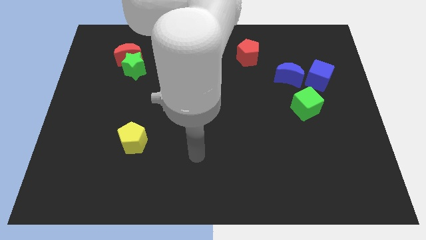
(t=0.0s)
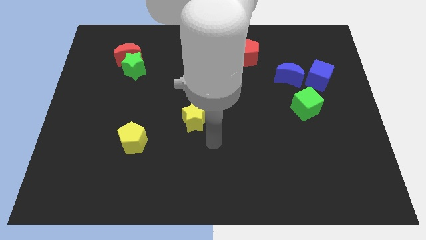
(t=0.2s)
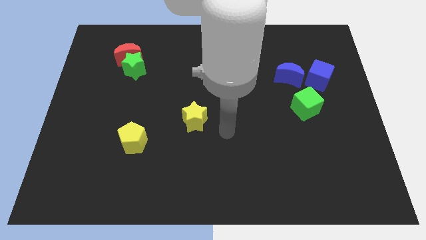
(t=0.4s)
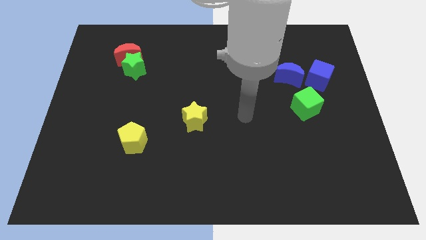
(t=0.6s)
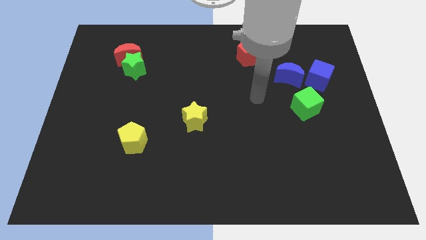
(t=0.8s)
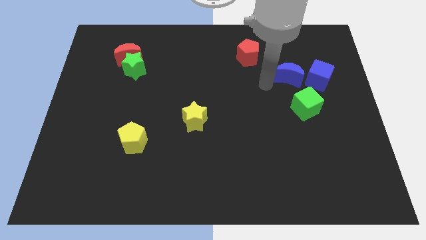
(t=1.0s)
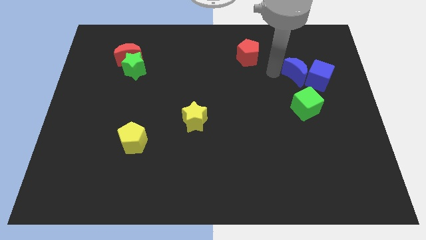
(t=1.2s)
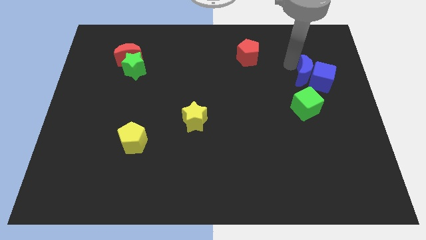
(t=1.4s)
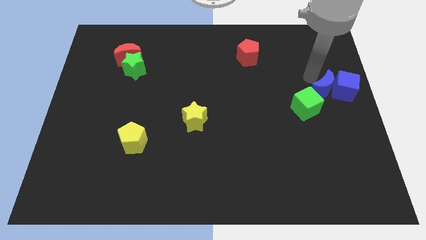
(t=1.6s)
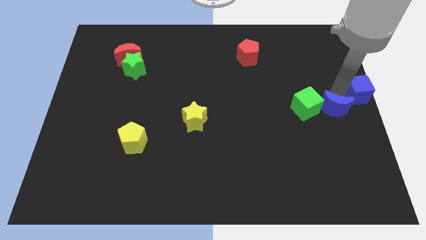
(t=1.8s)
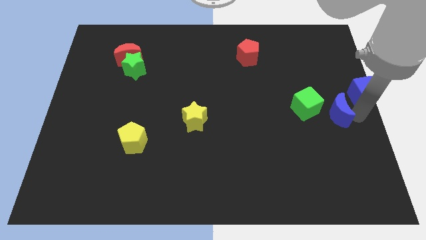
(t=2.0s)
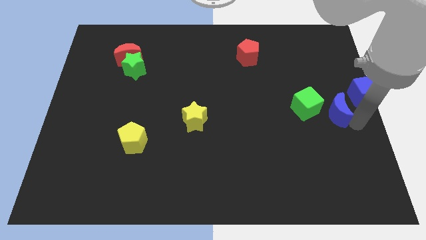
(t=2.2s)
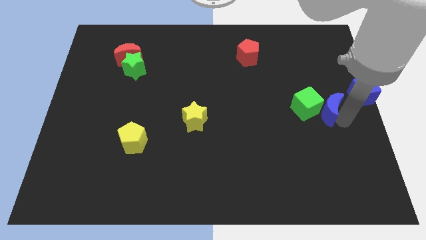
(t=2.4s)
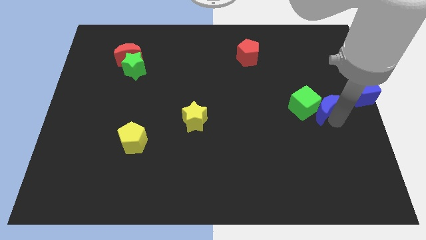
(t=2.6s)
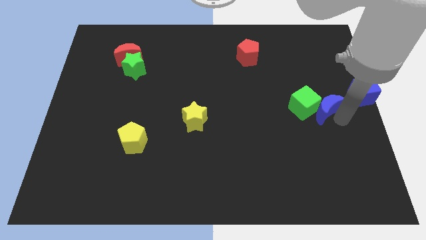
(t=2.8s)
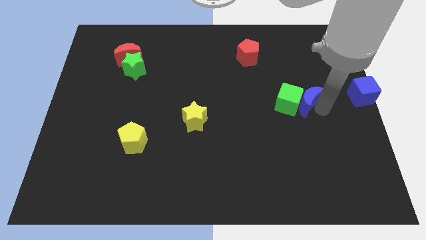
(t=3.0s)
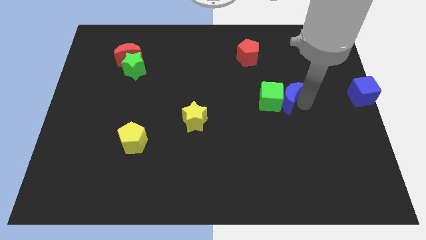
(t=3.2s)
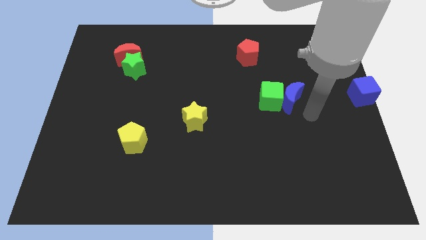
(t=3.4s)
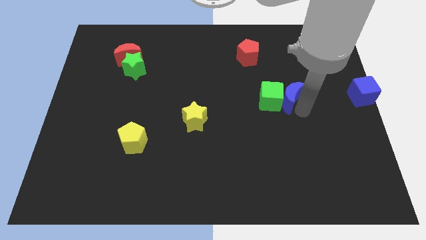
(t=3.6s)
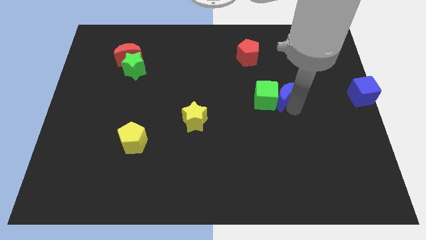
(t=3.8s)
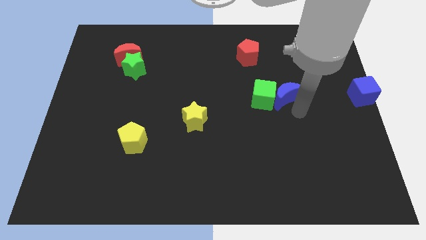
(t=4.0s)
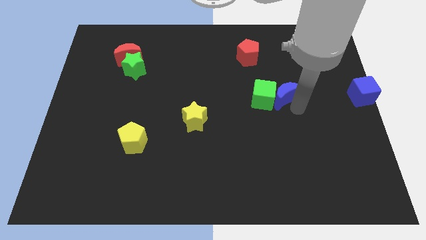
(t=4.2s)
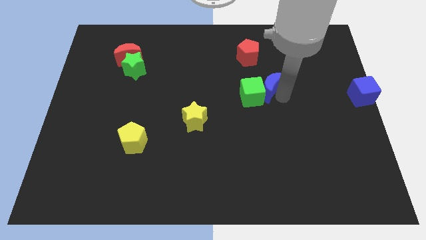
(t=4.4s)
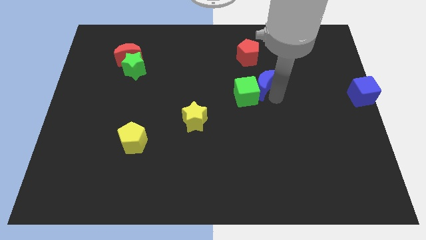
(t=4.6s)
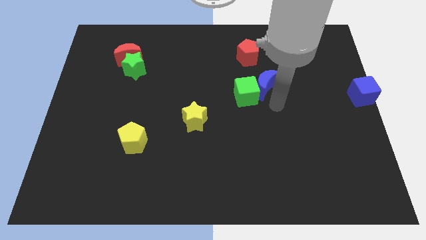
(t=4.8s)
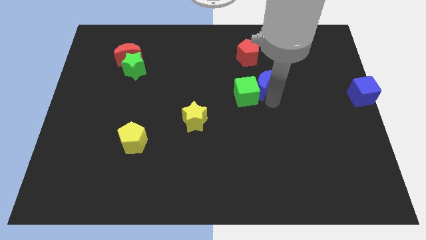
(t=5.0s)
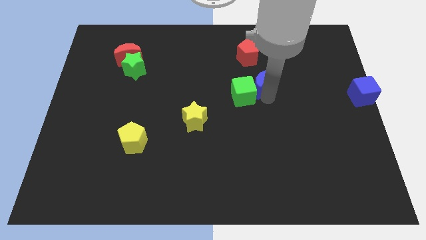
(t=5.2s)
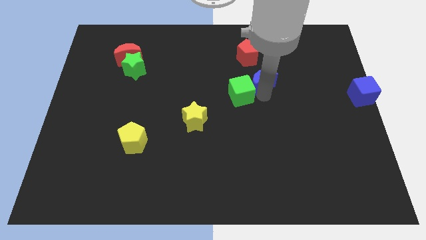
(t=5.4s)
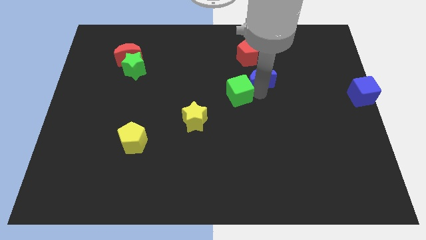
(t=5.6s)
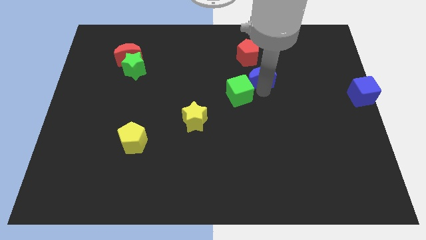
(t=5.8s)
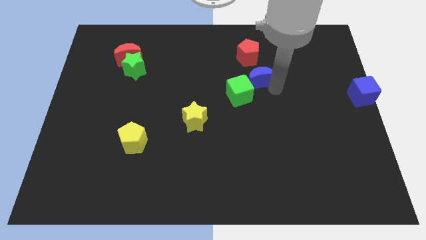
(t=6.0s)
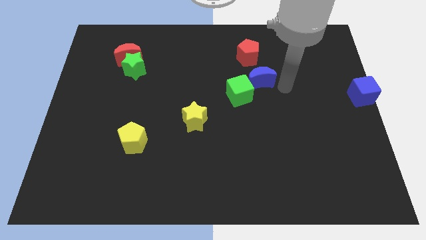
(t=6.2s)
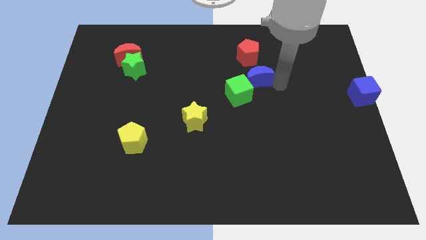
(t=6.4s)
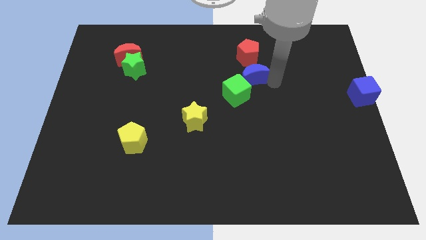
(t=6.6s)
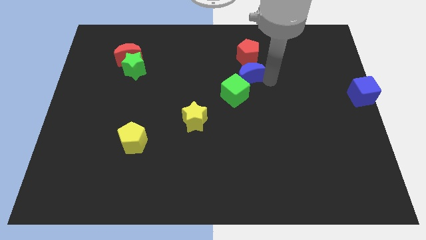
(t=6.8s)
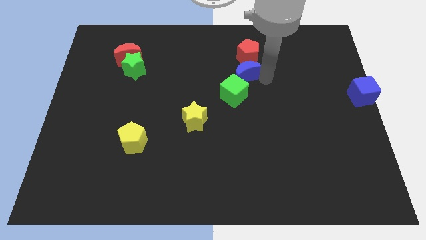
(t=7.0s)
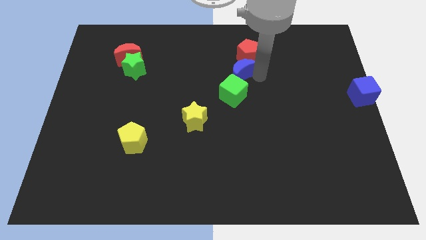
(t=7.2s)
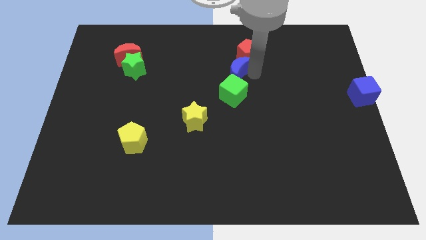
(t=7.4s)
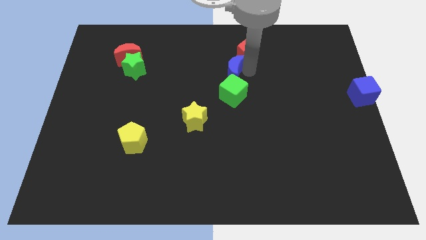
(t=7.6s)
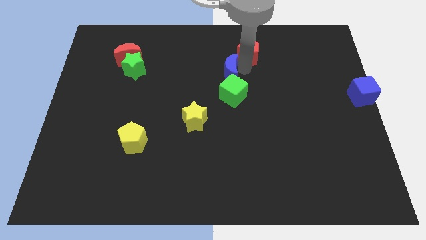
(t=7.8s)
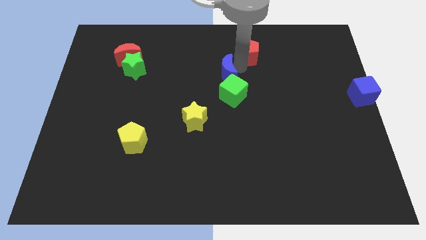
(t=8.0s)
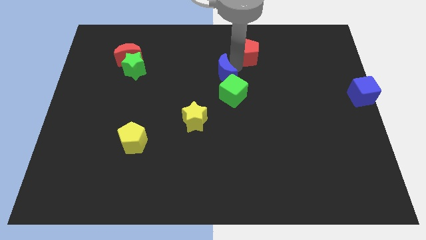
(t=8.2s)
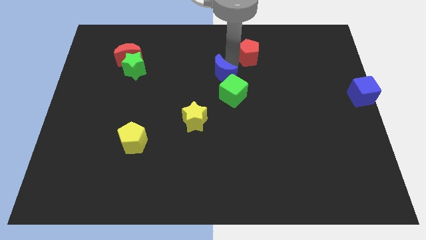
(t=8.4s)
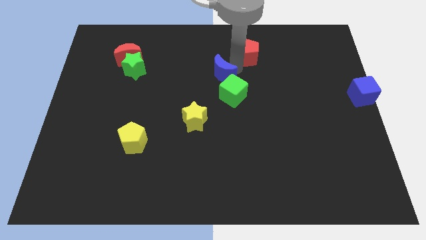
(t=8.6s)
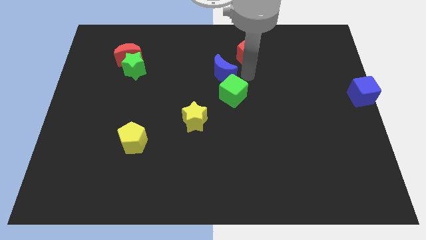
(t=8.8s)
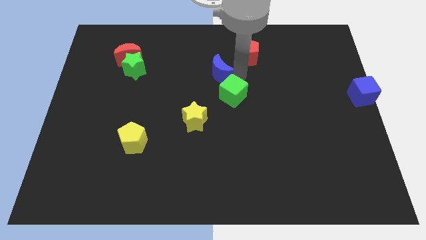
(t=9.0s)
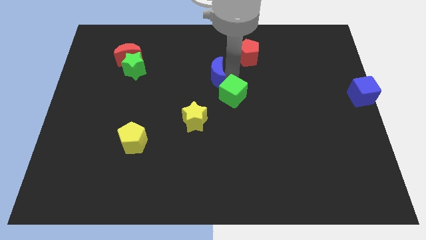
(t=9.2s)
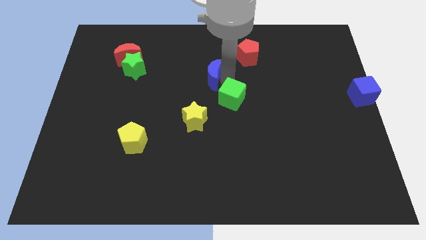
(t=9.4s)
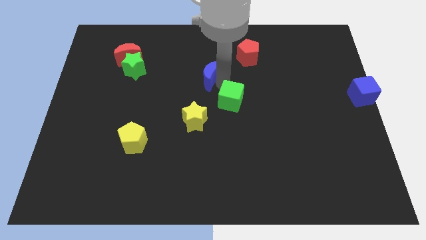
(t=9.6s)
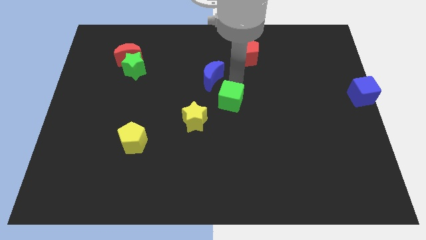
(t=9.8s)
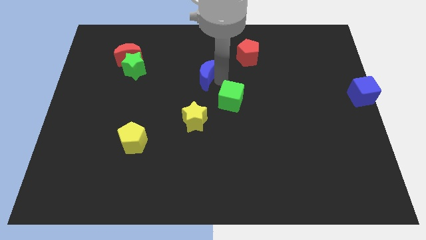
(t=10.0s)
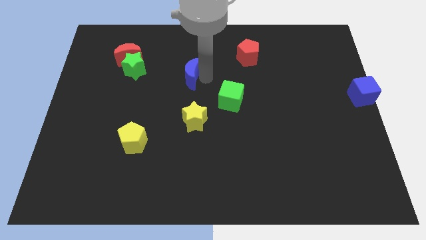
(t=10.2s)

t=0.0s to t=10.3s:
push the blue moon right of the green star

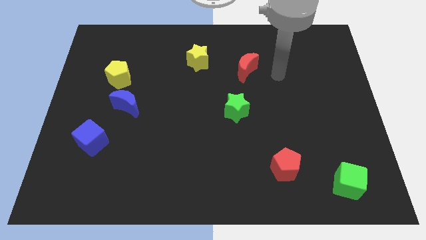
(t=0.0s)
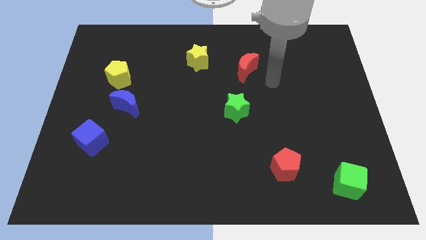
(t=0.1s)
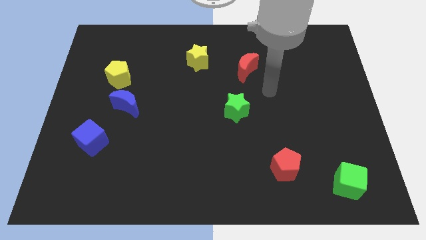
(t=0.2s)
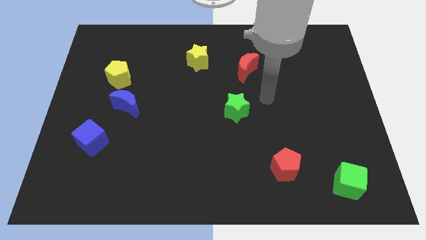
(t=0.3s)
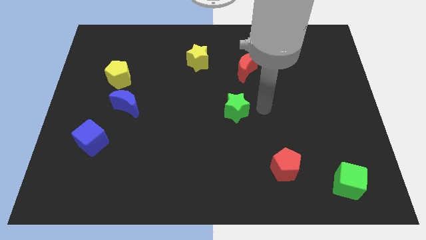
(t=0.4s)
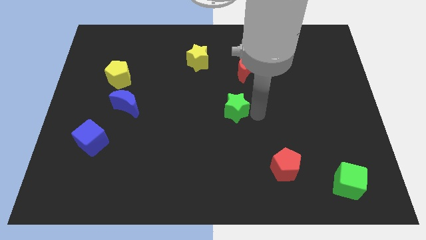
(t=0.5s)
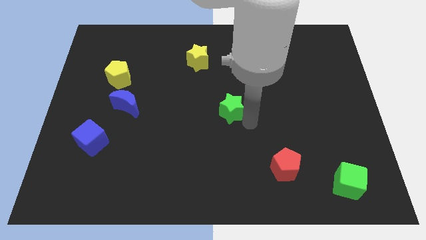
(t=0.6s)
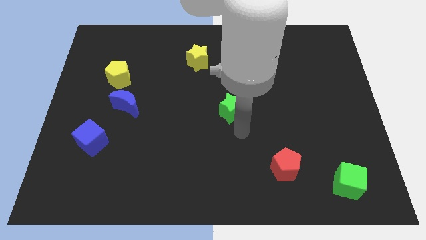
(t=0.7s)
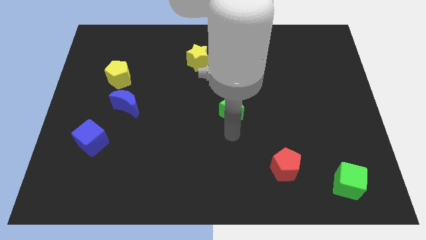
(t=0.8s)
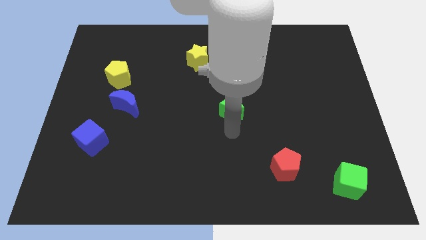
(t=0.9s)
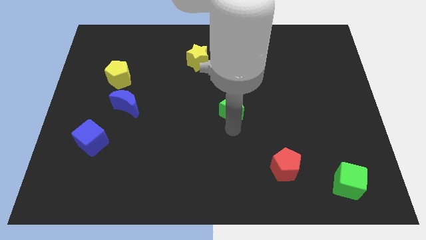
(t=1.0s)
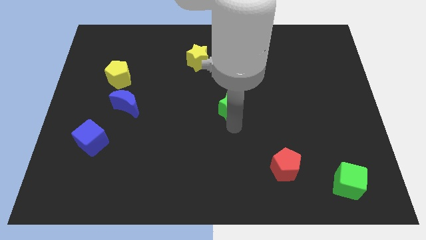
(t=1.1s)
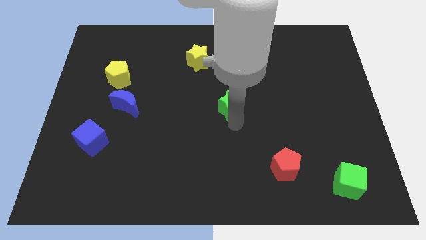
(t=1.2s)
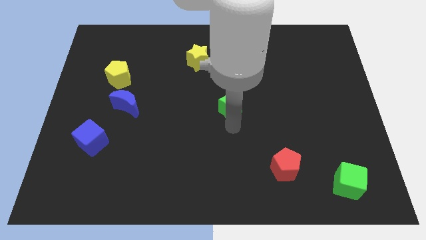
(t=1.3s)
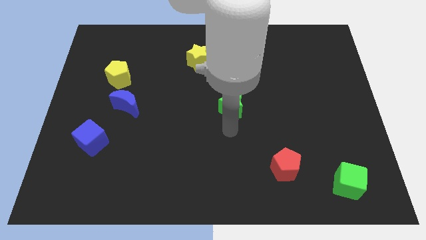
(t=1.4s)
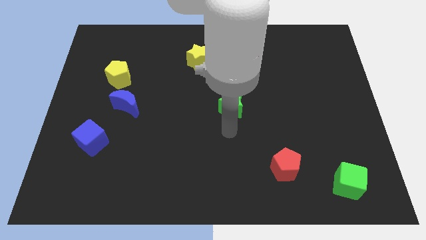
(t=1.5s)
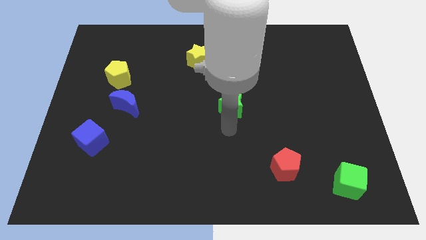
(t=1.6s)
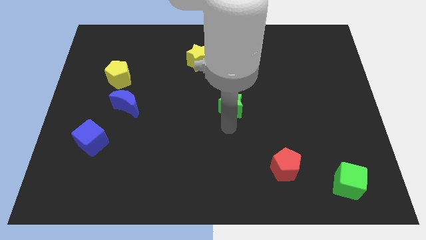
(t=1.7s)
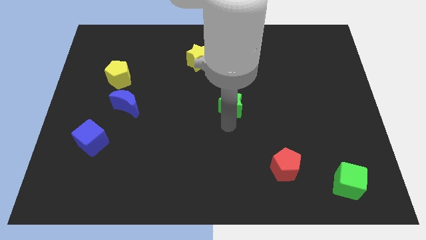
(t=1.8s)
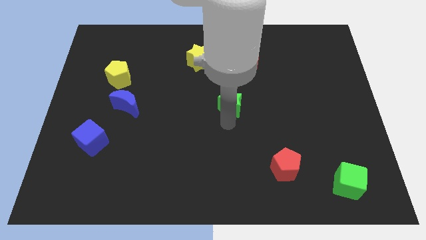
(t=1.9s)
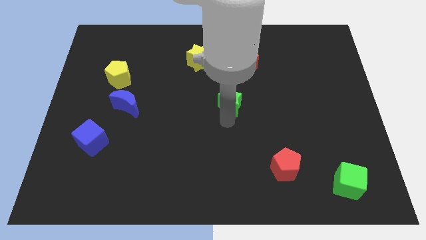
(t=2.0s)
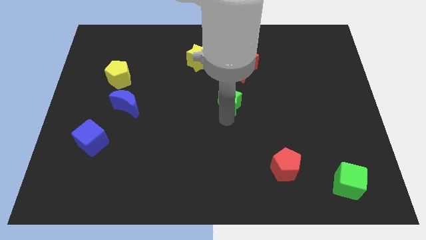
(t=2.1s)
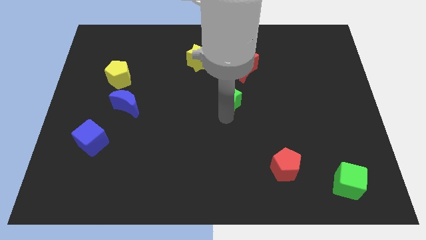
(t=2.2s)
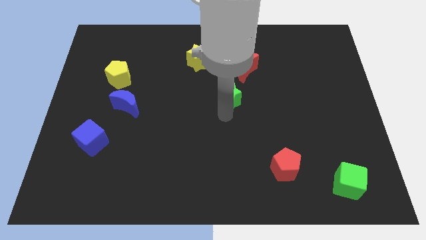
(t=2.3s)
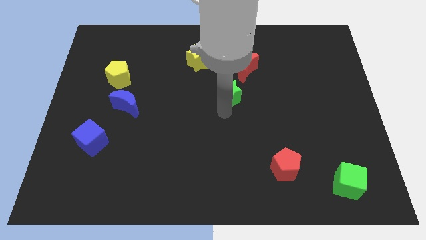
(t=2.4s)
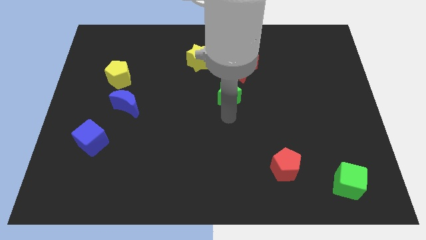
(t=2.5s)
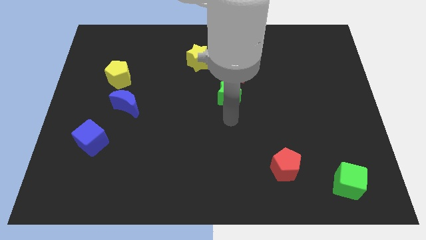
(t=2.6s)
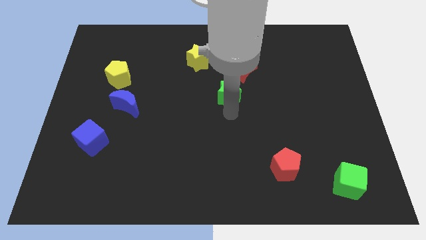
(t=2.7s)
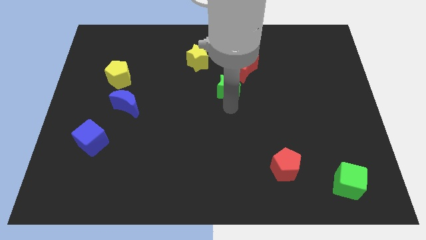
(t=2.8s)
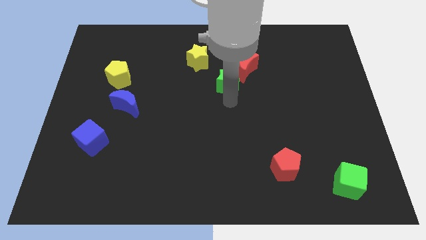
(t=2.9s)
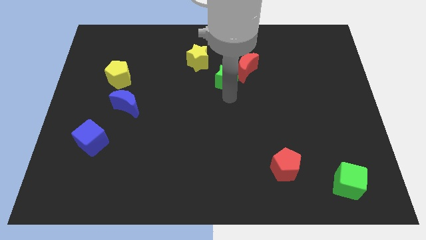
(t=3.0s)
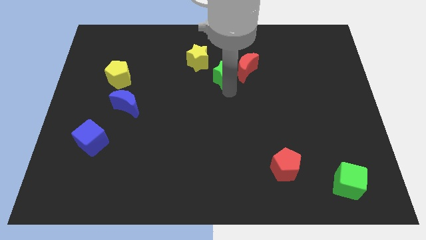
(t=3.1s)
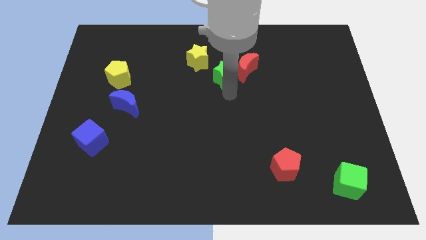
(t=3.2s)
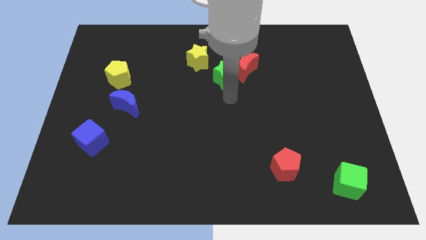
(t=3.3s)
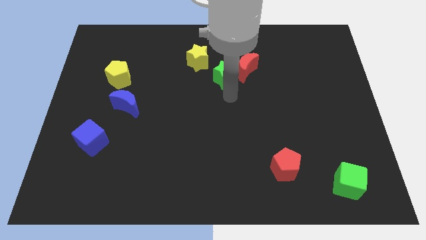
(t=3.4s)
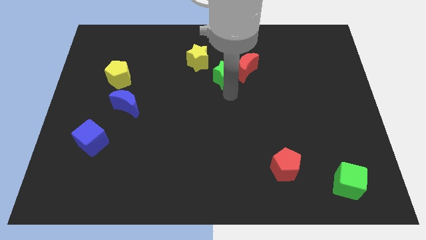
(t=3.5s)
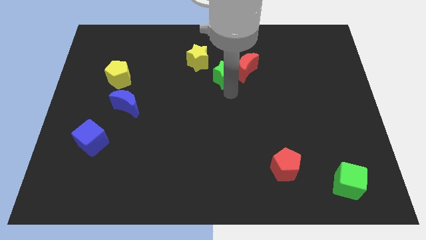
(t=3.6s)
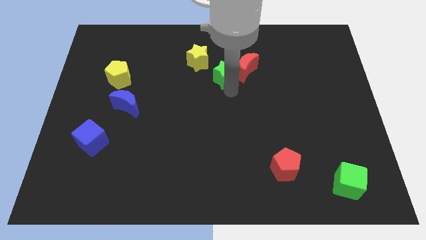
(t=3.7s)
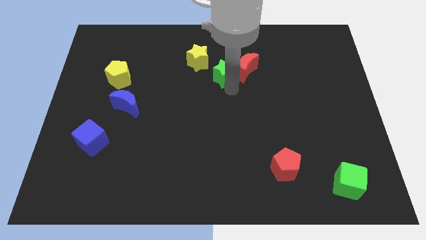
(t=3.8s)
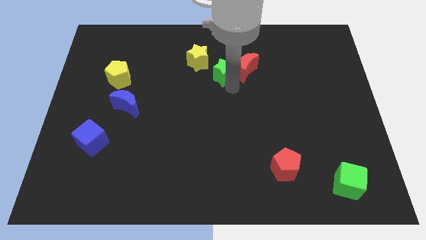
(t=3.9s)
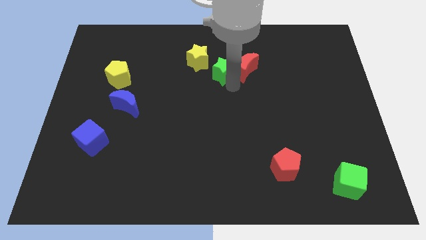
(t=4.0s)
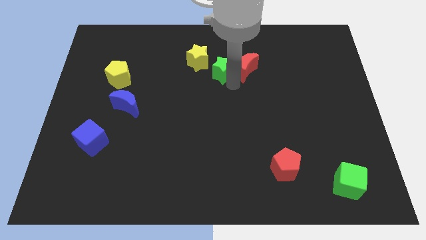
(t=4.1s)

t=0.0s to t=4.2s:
slide the green star diagonally up and to the left of the red moon
